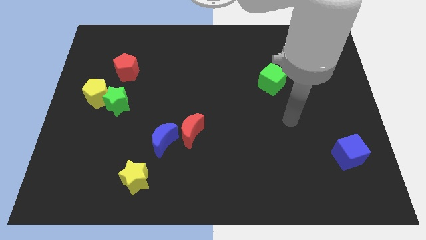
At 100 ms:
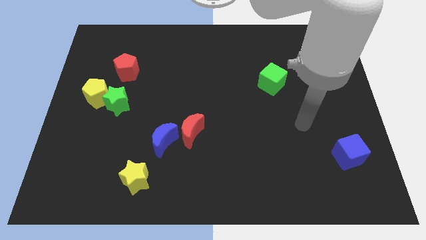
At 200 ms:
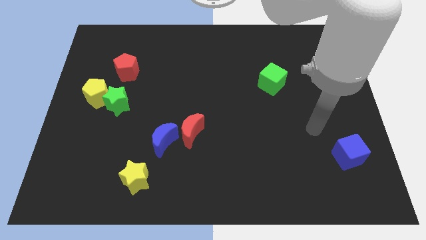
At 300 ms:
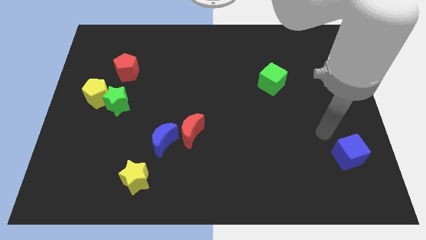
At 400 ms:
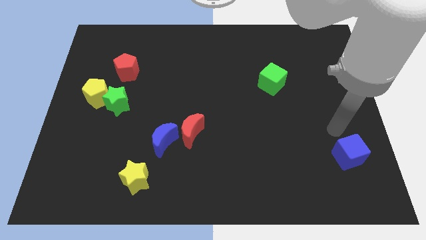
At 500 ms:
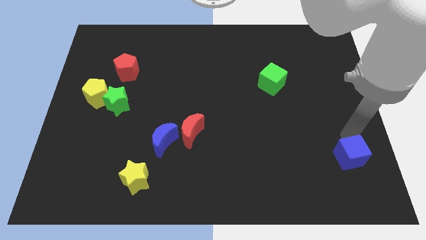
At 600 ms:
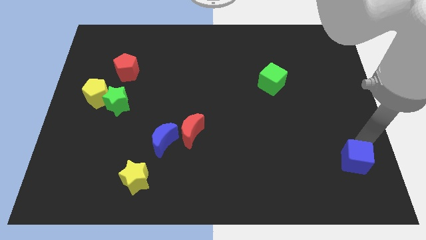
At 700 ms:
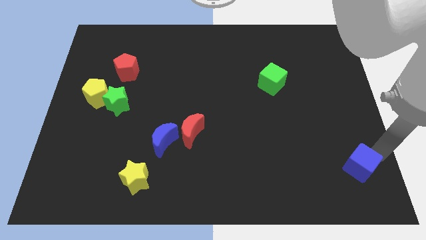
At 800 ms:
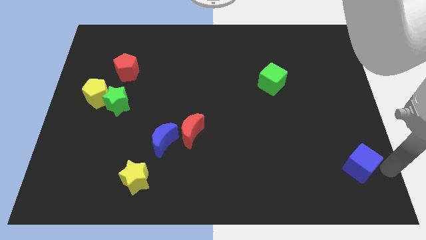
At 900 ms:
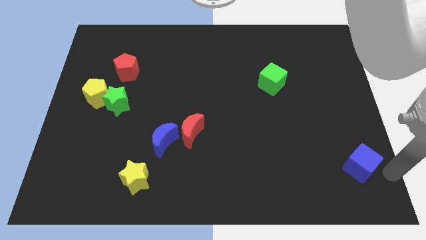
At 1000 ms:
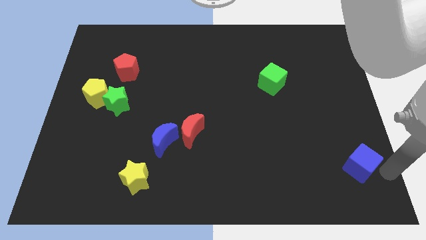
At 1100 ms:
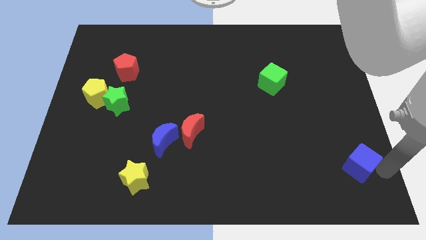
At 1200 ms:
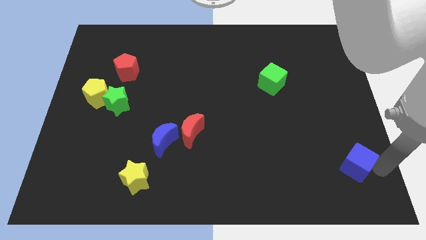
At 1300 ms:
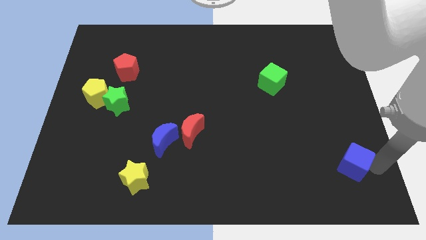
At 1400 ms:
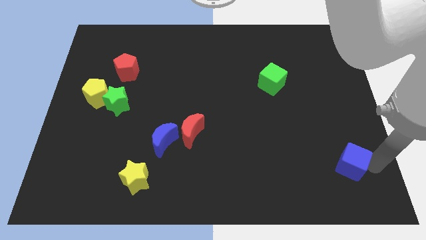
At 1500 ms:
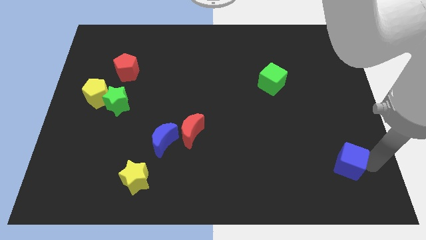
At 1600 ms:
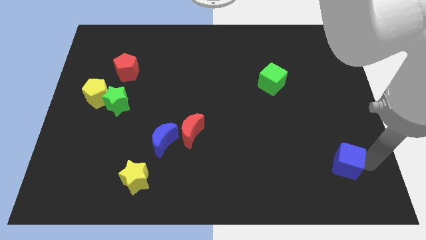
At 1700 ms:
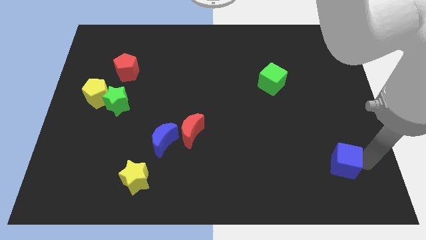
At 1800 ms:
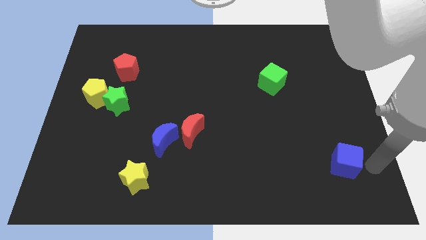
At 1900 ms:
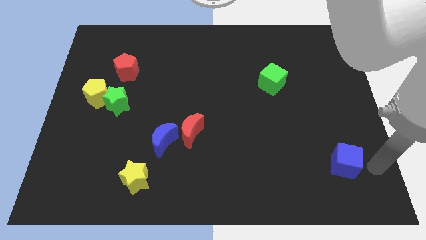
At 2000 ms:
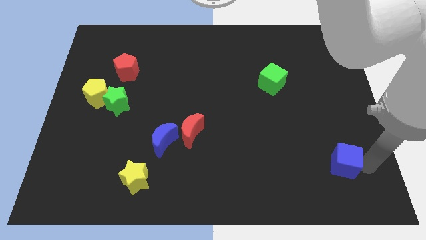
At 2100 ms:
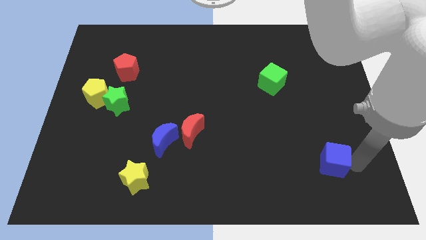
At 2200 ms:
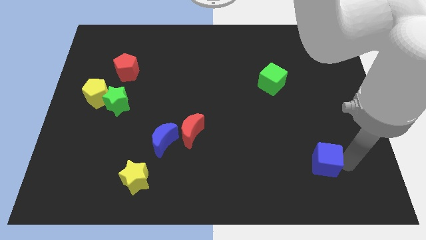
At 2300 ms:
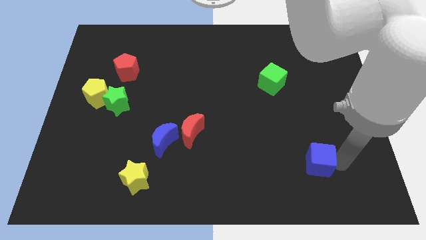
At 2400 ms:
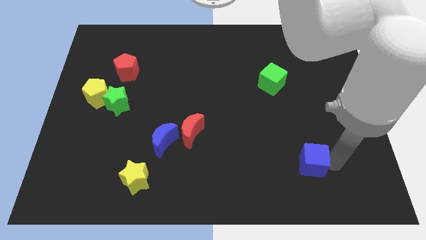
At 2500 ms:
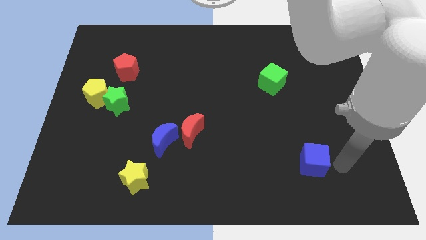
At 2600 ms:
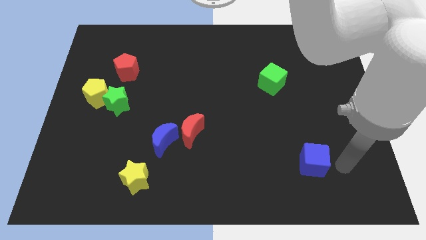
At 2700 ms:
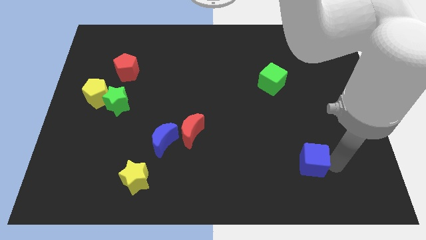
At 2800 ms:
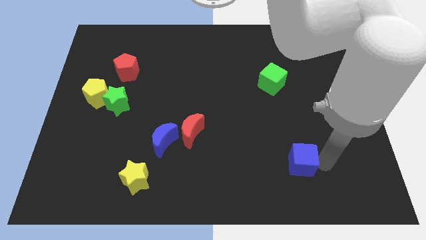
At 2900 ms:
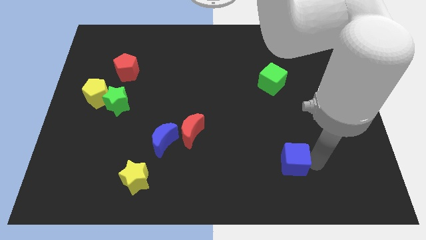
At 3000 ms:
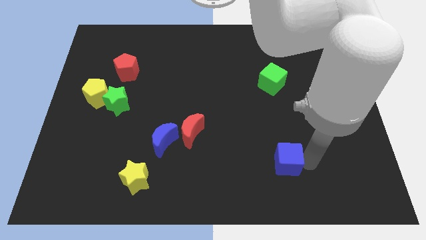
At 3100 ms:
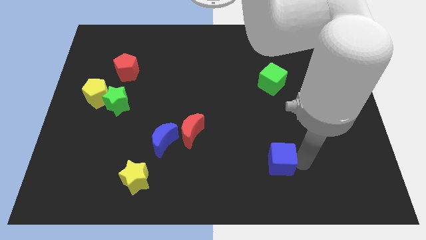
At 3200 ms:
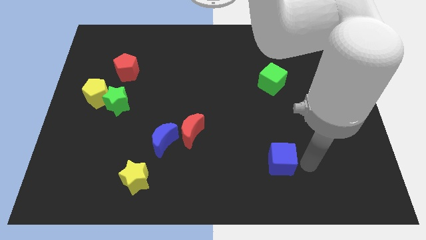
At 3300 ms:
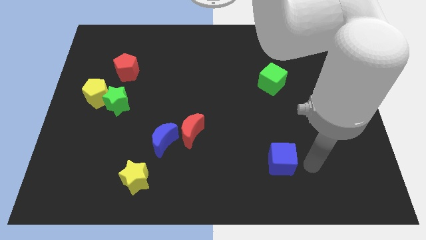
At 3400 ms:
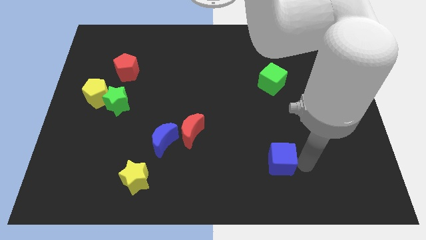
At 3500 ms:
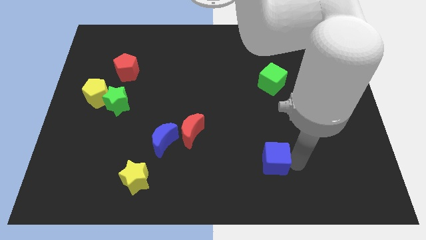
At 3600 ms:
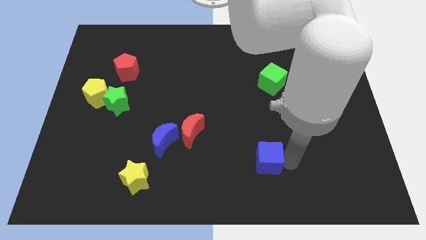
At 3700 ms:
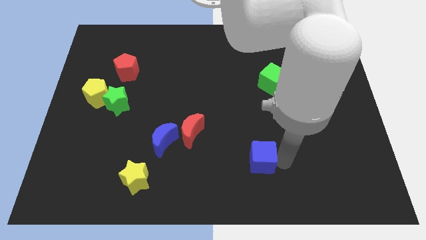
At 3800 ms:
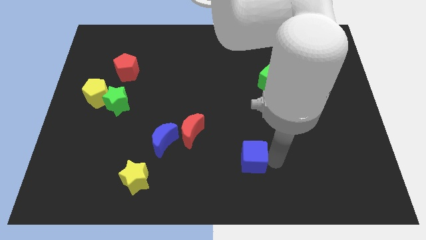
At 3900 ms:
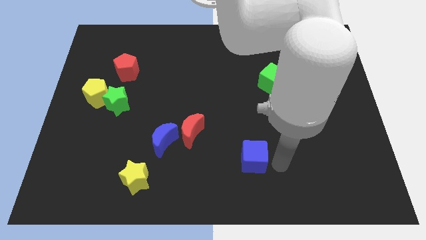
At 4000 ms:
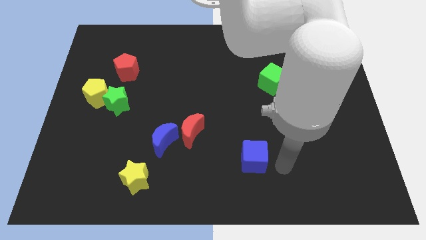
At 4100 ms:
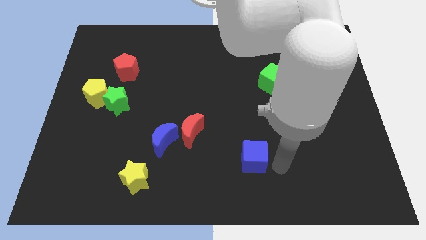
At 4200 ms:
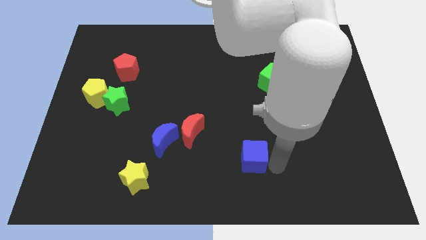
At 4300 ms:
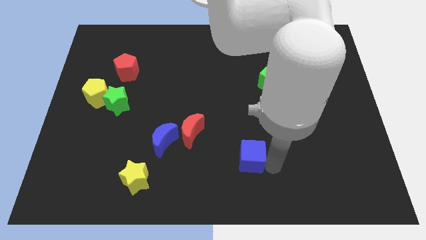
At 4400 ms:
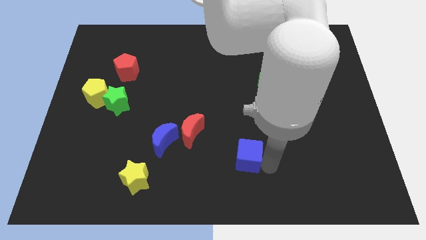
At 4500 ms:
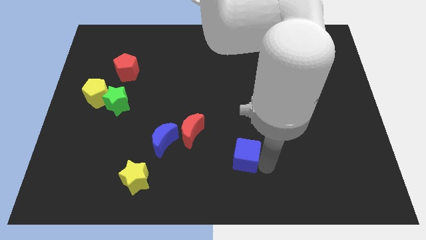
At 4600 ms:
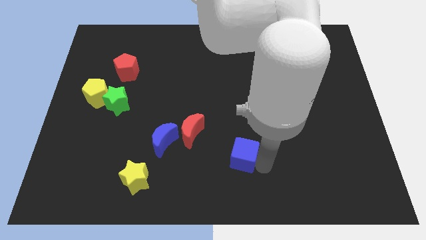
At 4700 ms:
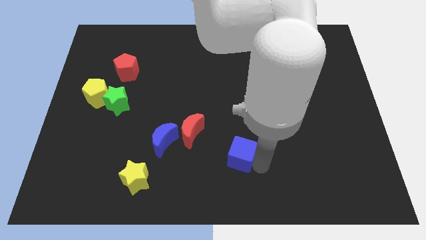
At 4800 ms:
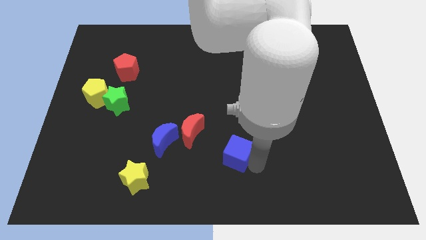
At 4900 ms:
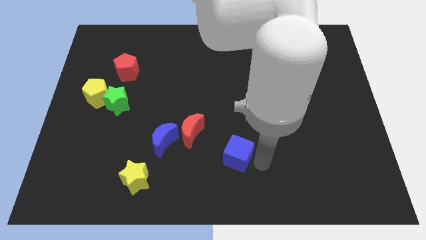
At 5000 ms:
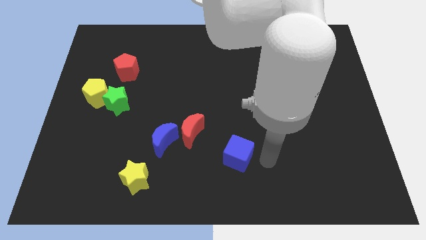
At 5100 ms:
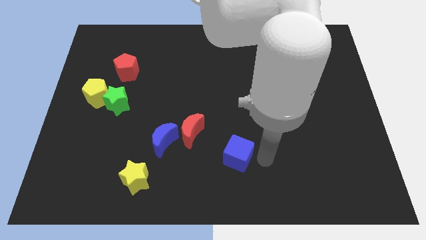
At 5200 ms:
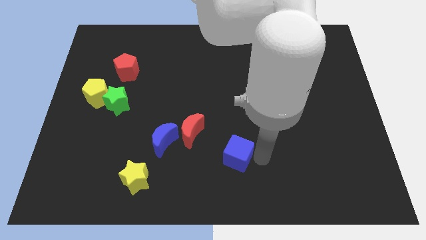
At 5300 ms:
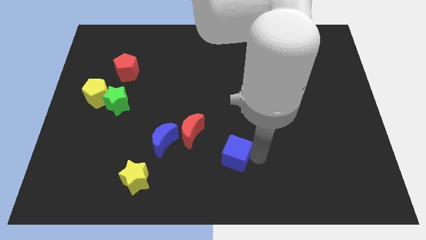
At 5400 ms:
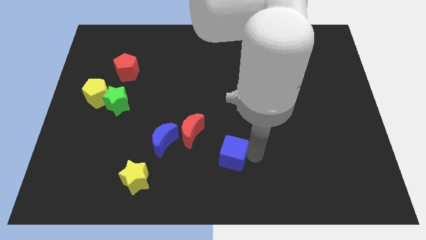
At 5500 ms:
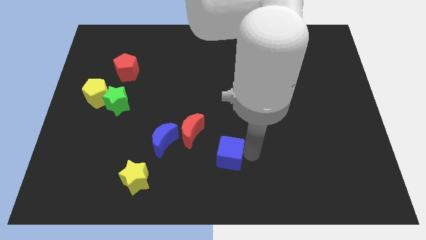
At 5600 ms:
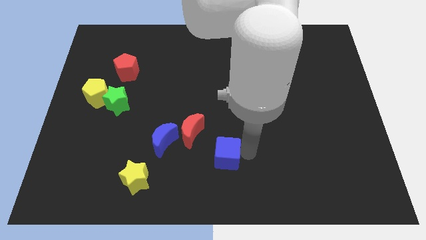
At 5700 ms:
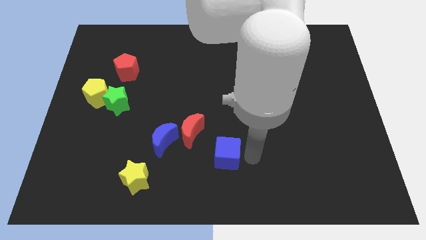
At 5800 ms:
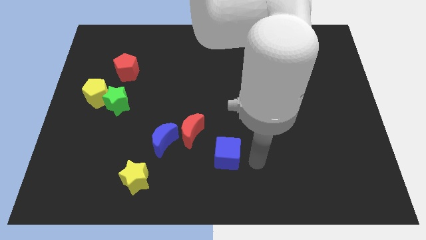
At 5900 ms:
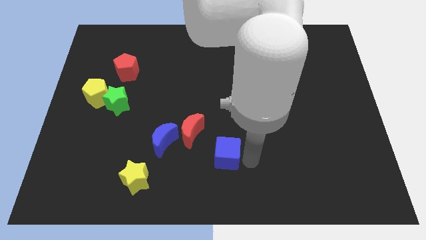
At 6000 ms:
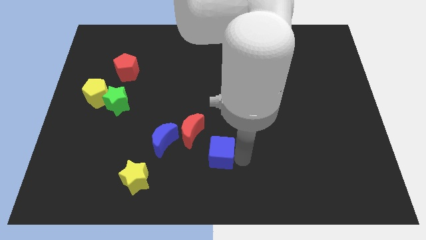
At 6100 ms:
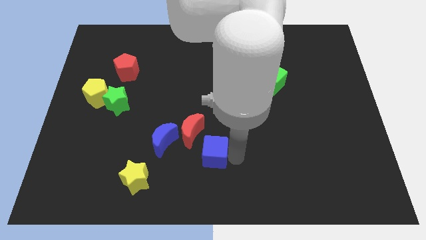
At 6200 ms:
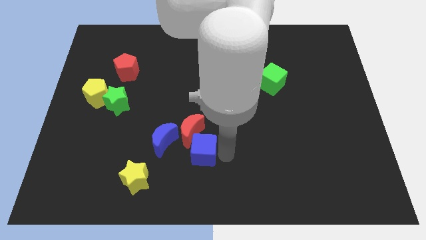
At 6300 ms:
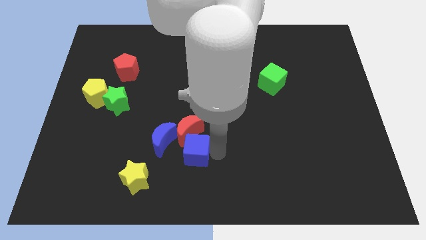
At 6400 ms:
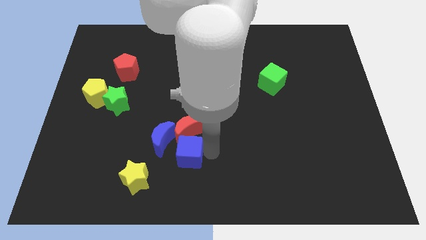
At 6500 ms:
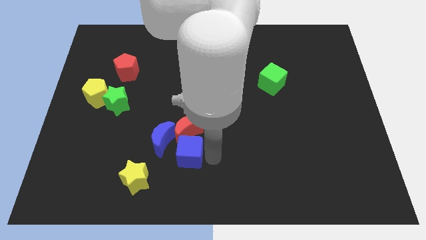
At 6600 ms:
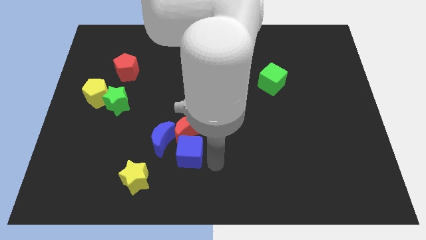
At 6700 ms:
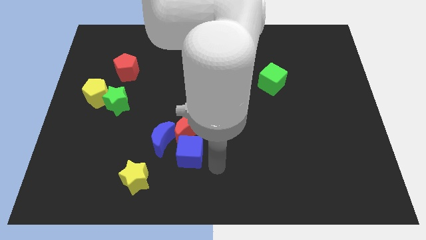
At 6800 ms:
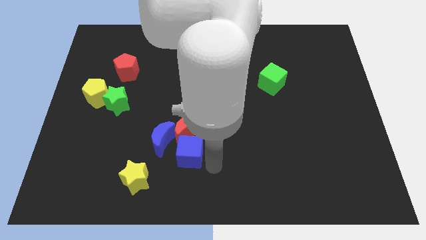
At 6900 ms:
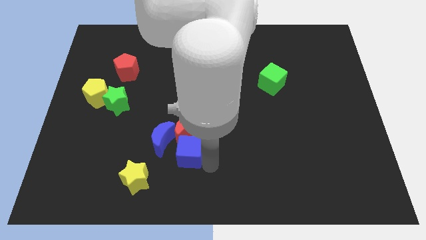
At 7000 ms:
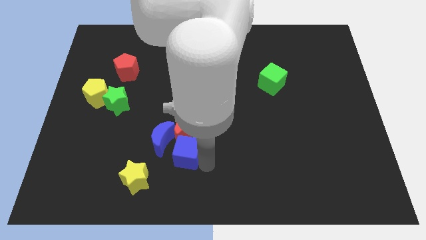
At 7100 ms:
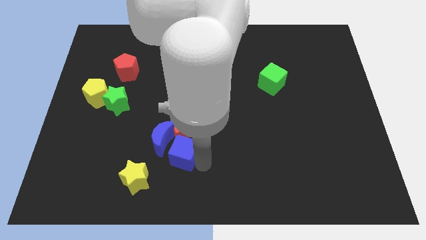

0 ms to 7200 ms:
push the blue cube next to the blue moon
